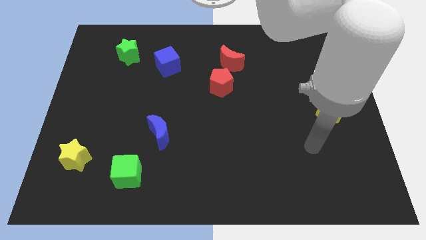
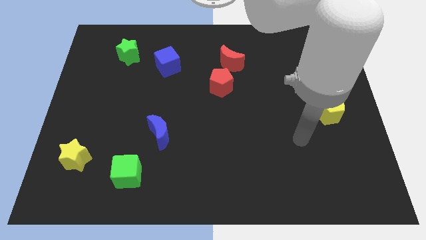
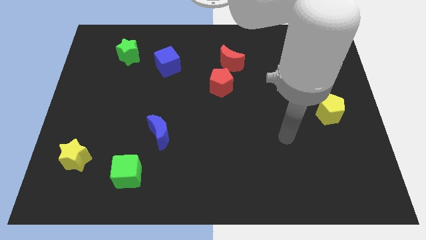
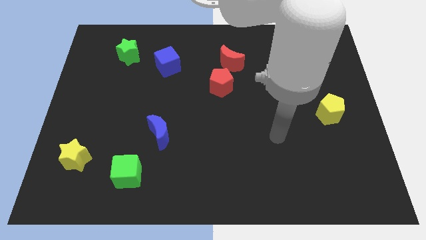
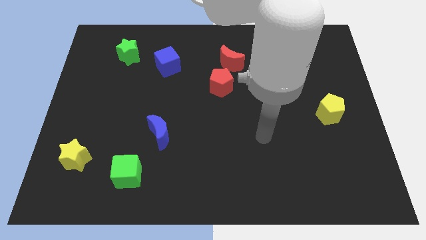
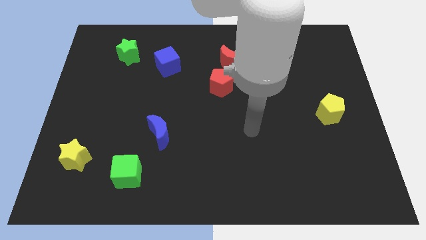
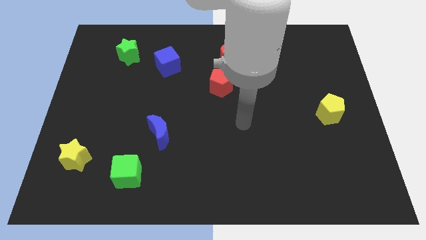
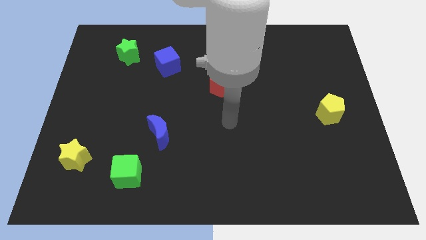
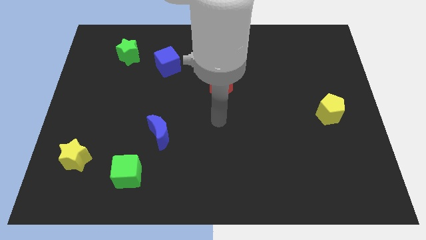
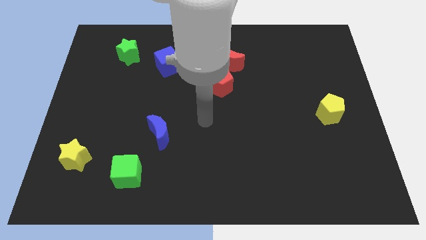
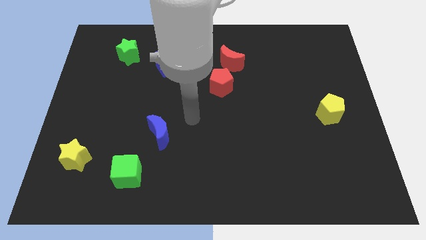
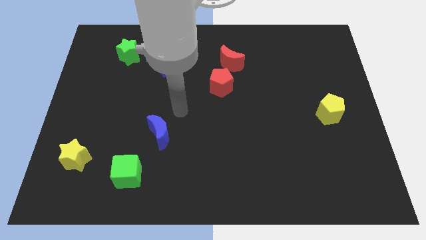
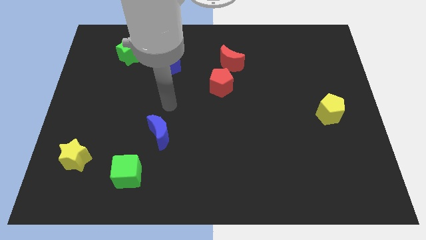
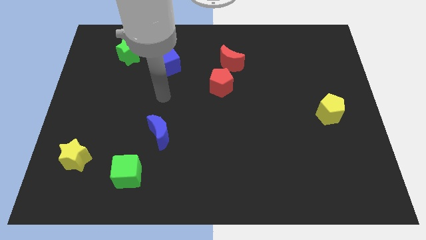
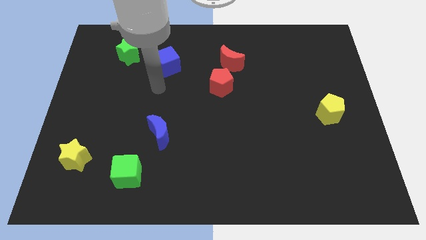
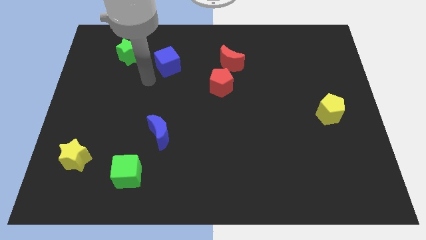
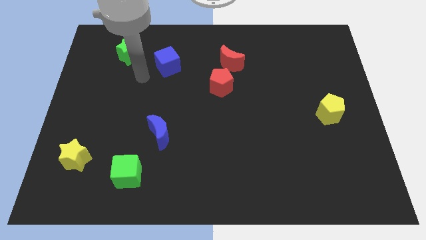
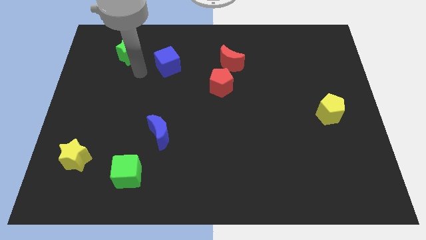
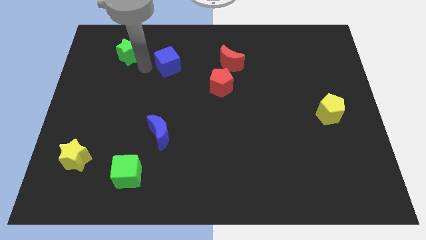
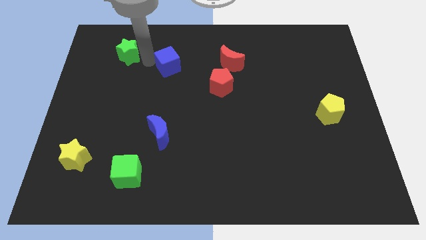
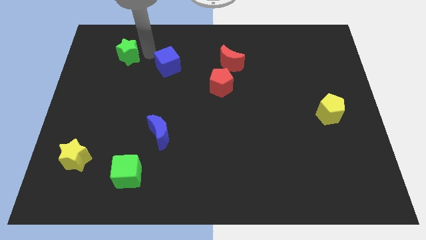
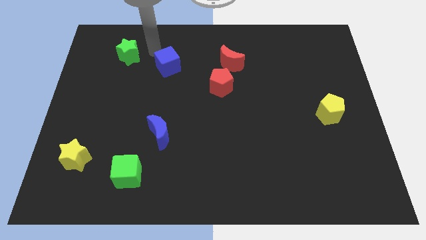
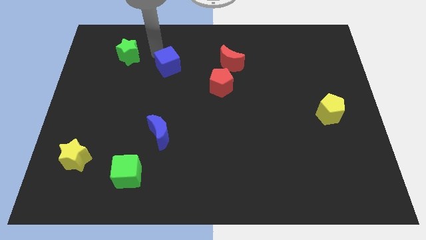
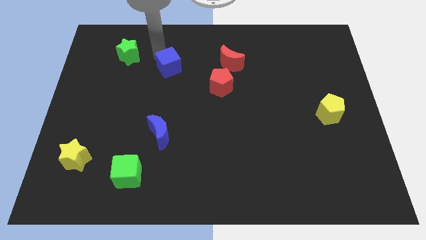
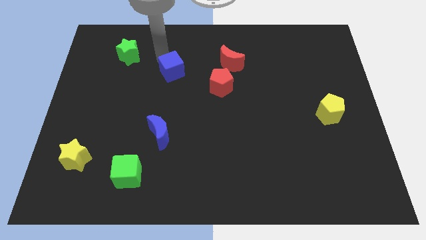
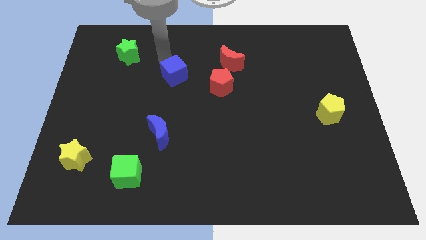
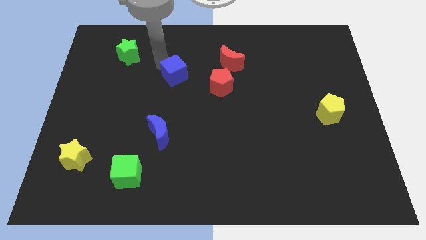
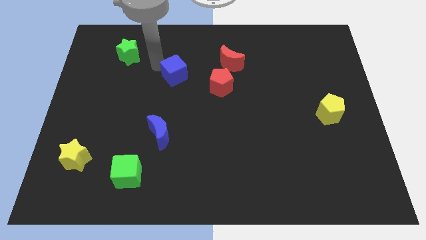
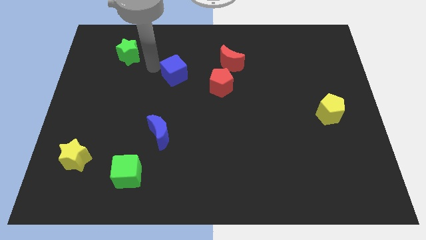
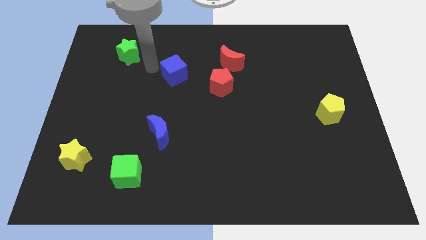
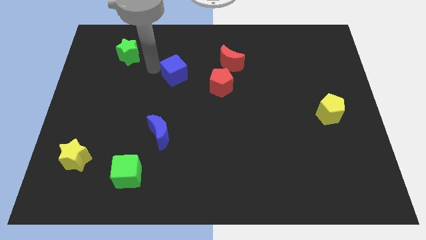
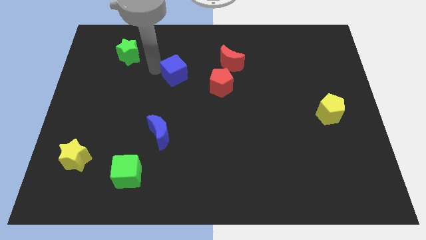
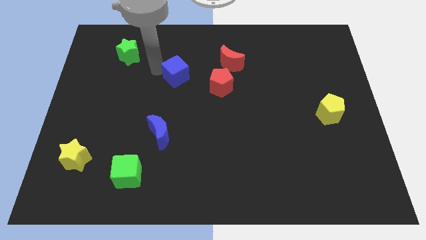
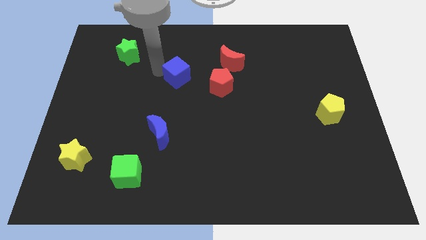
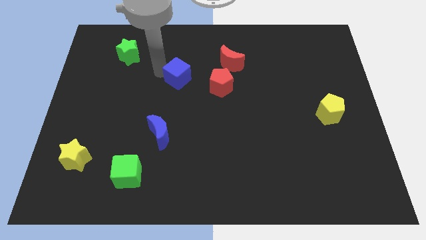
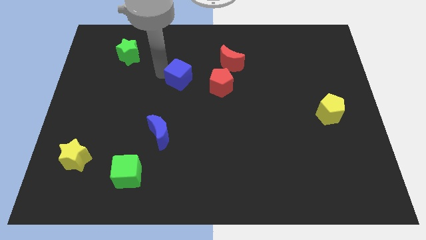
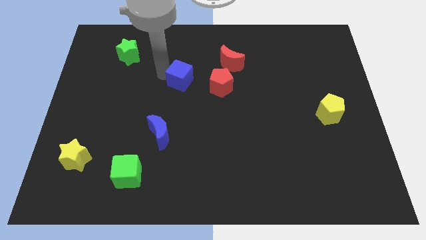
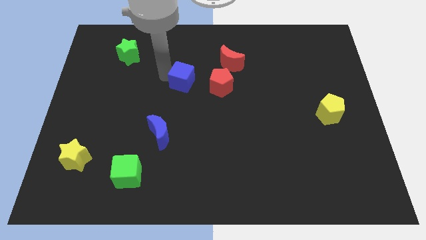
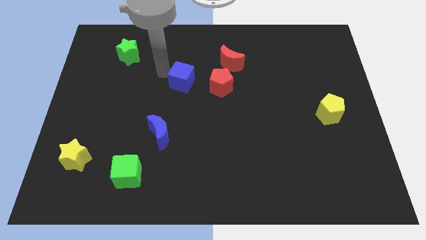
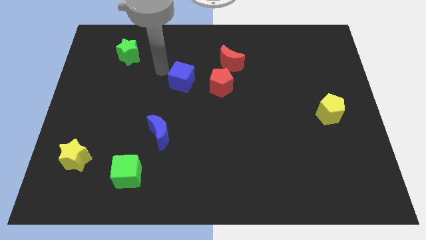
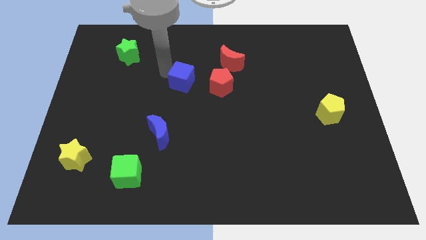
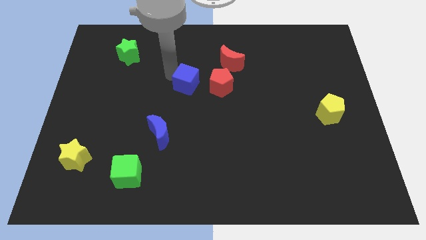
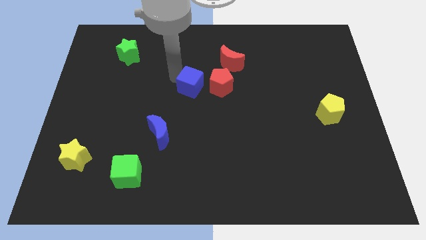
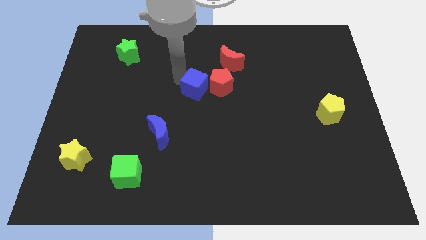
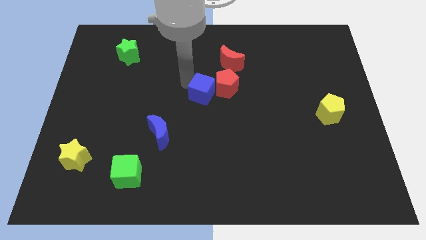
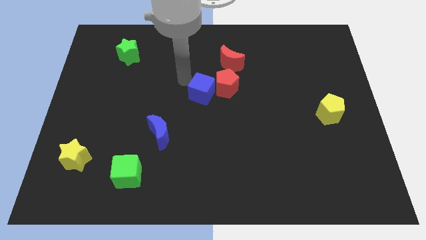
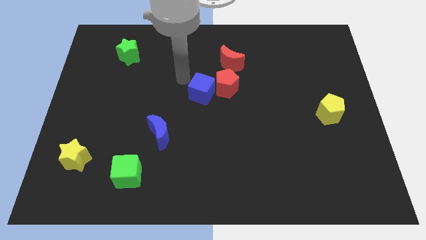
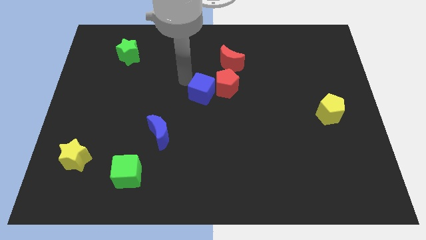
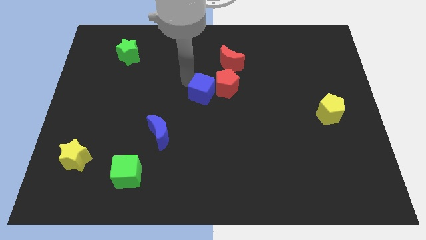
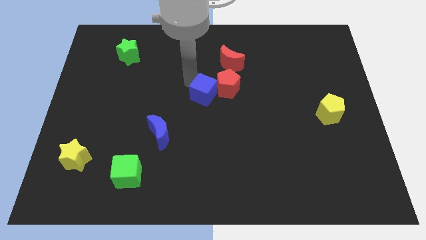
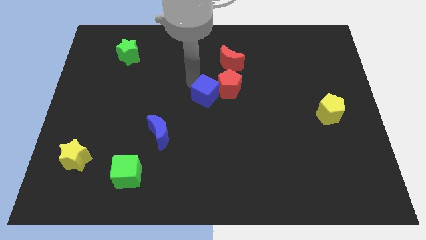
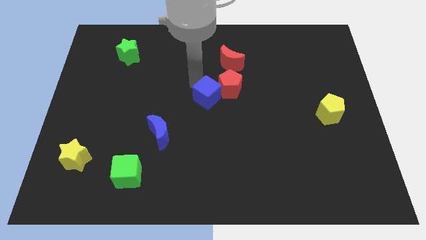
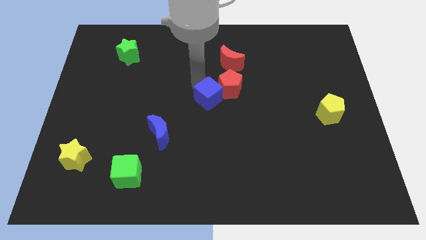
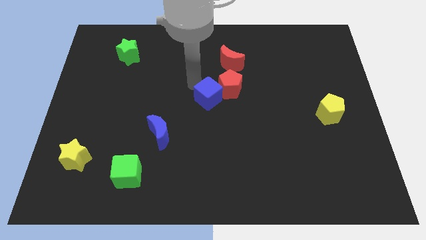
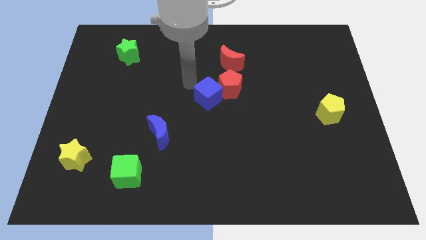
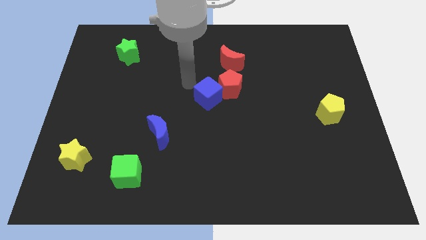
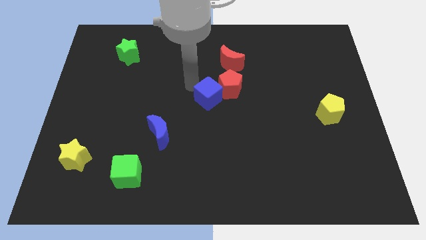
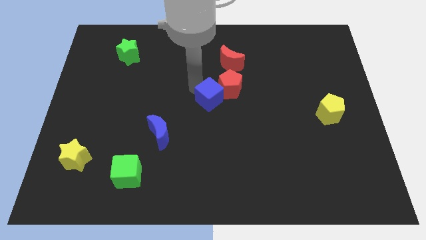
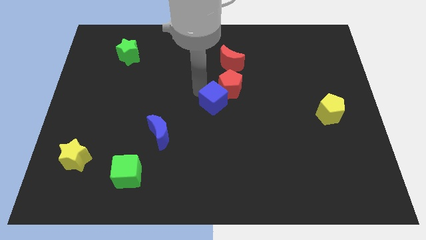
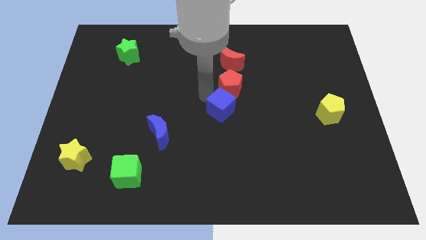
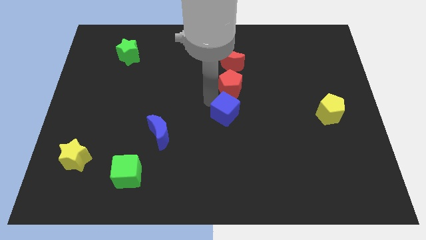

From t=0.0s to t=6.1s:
slide the blue cube down and to the right diagonally

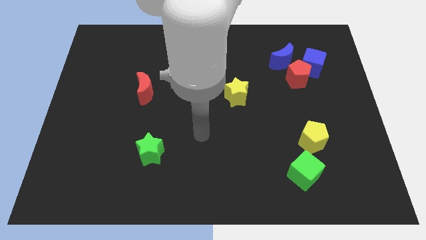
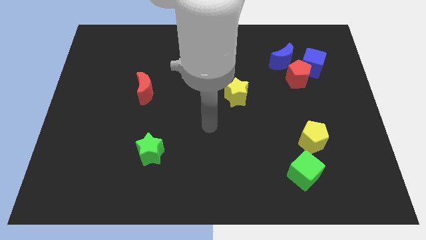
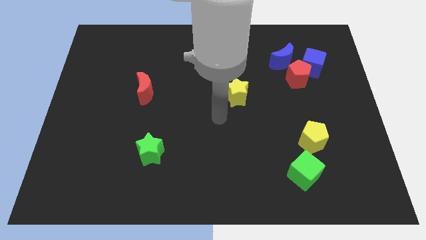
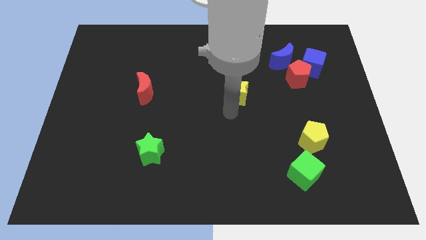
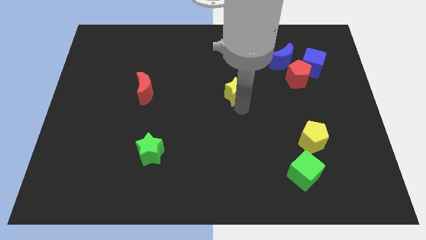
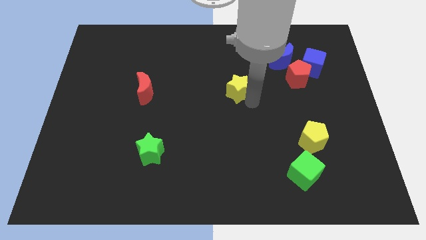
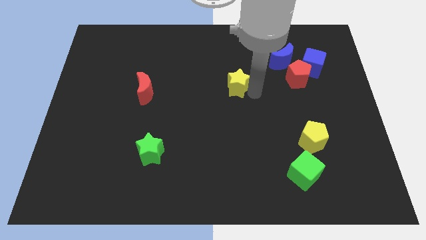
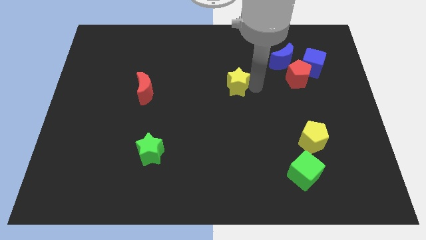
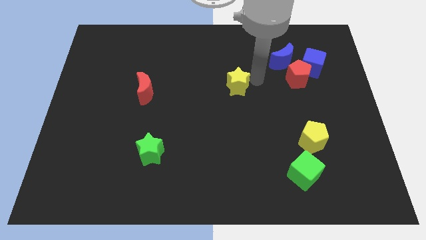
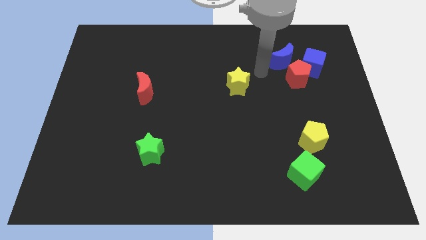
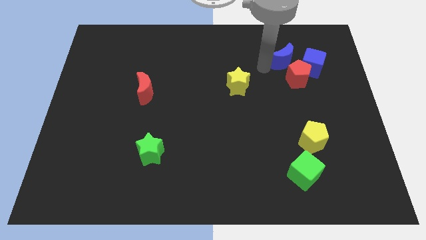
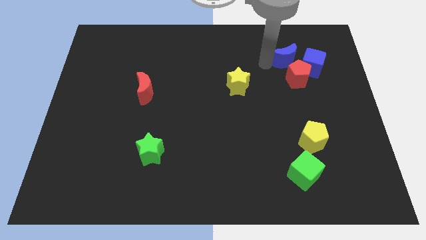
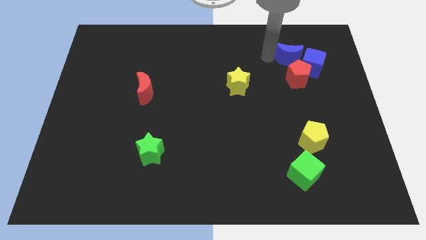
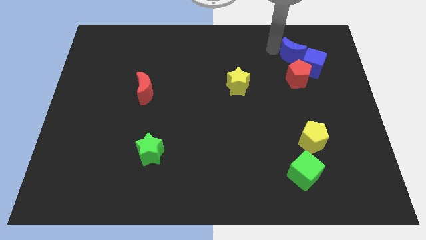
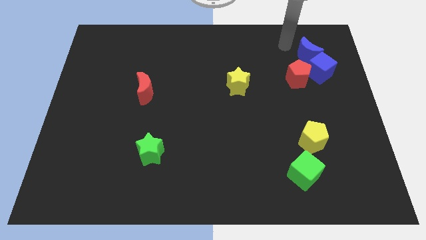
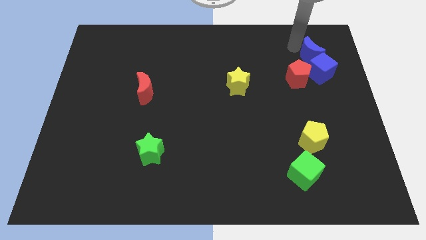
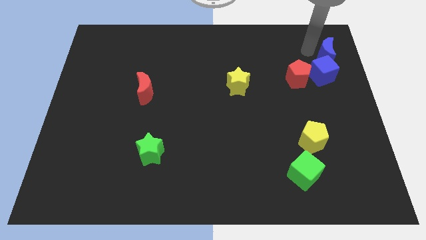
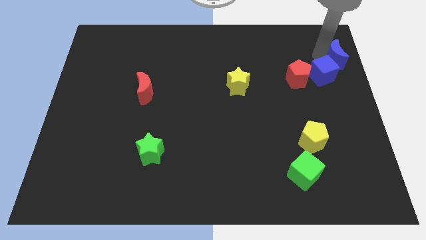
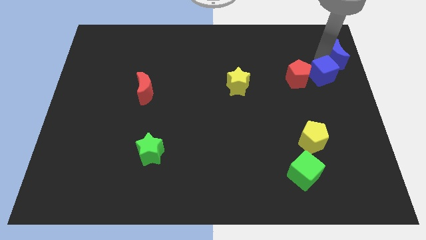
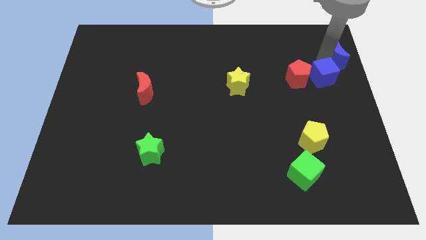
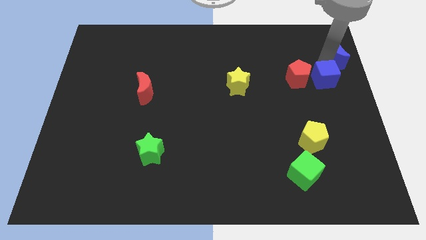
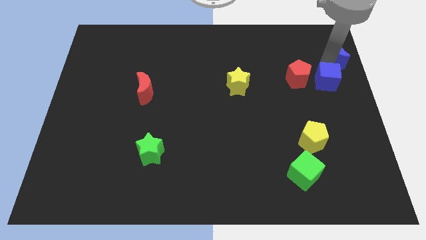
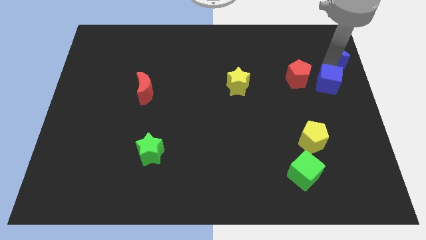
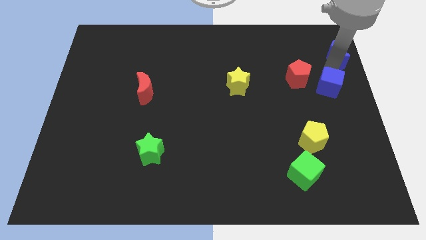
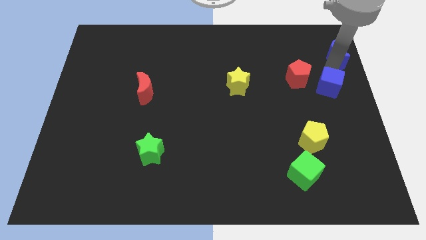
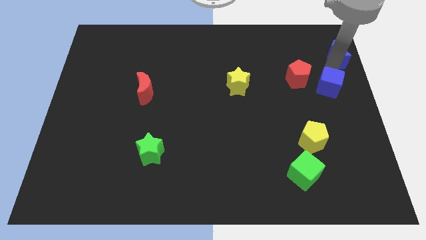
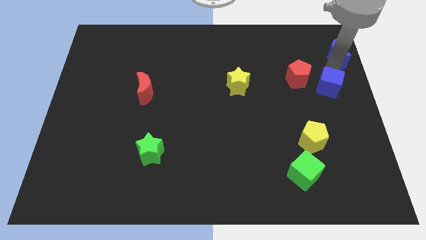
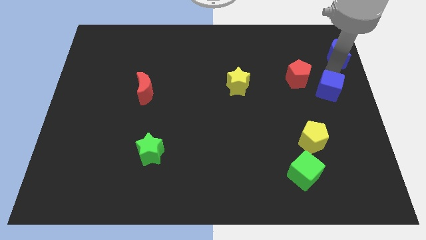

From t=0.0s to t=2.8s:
slightly slide the blue cube down
